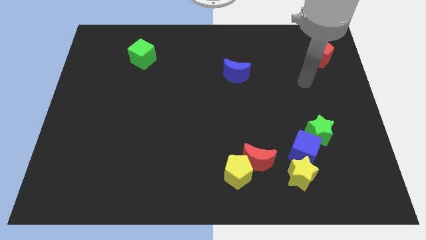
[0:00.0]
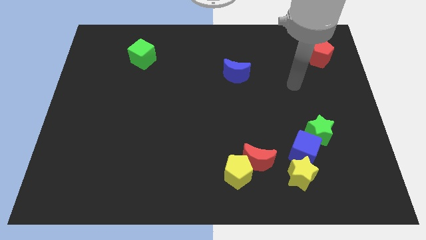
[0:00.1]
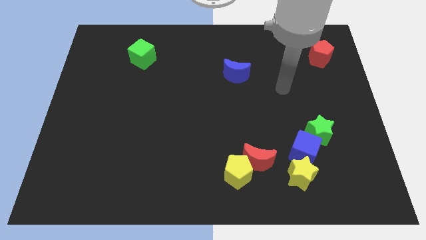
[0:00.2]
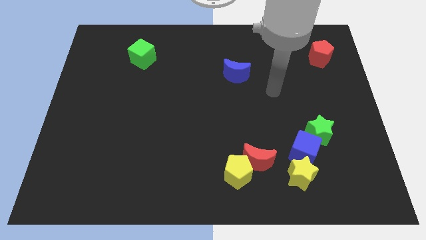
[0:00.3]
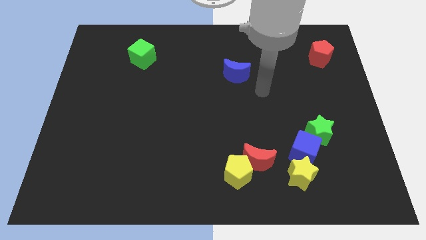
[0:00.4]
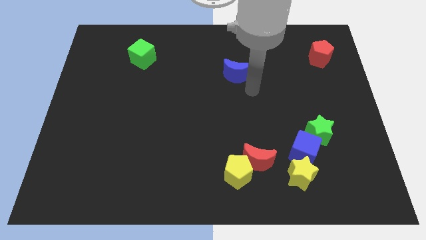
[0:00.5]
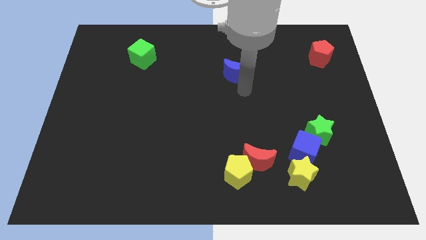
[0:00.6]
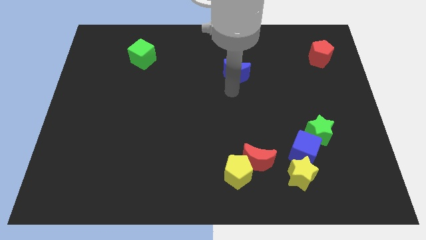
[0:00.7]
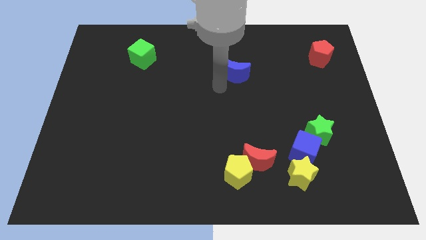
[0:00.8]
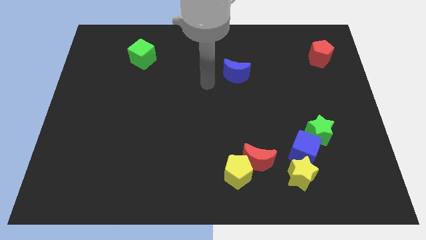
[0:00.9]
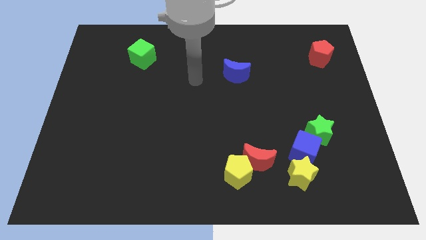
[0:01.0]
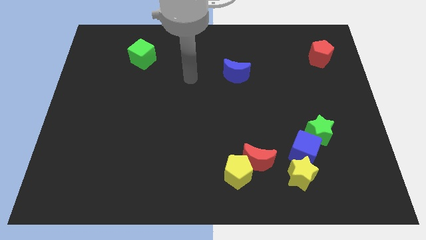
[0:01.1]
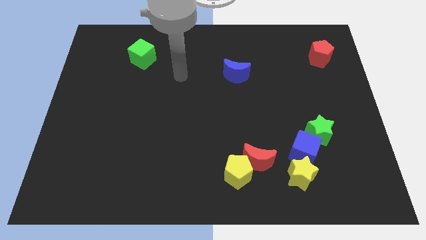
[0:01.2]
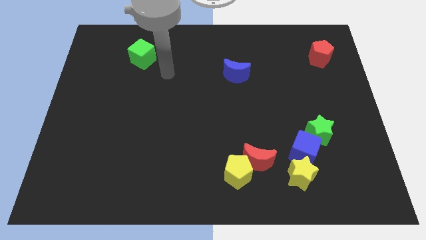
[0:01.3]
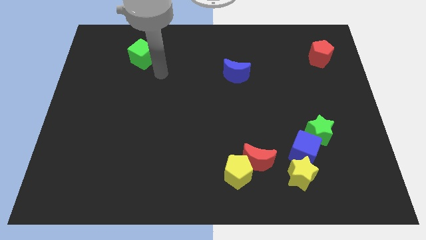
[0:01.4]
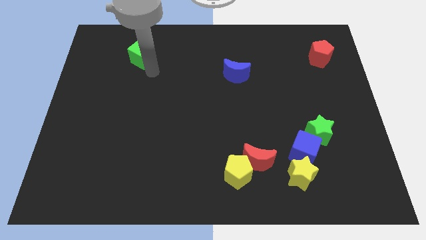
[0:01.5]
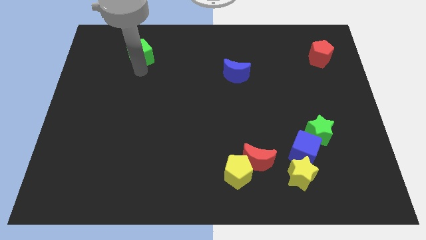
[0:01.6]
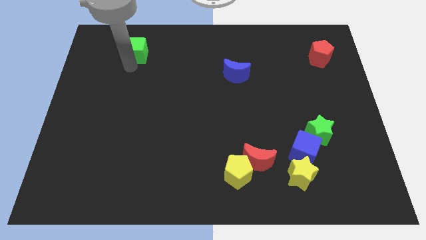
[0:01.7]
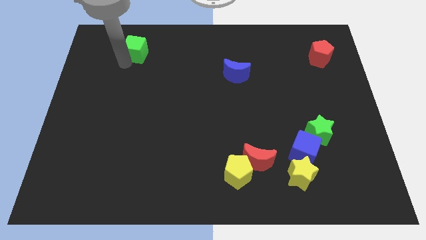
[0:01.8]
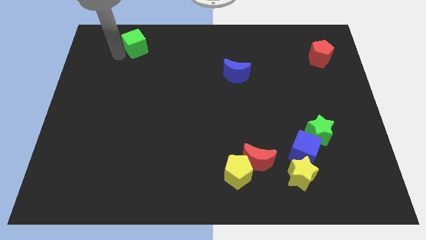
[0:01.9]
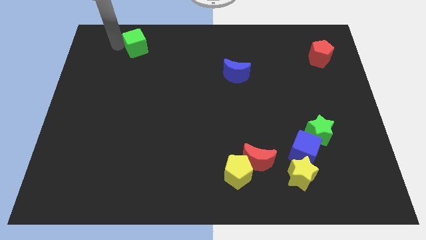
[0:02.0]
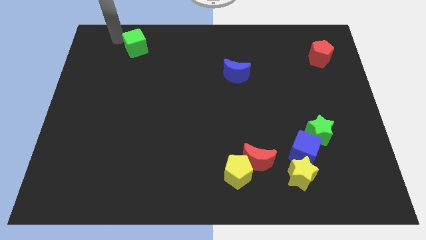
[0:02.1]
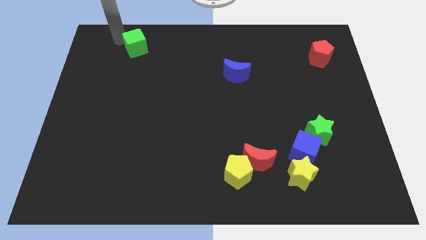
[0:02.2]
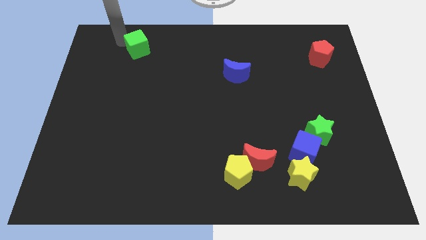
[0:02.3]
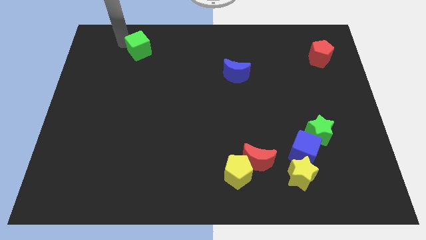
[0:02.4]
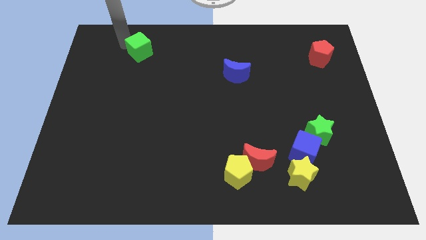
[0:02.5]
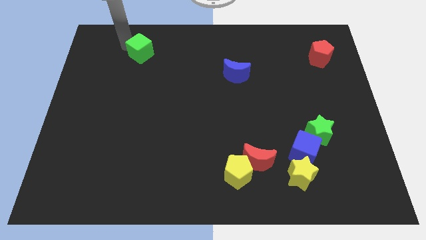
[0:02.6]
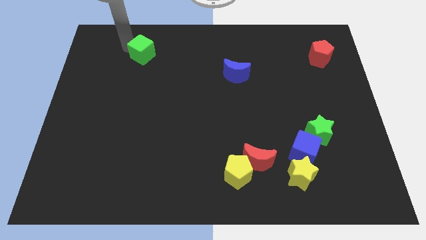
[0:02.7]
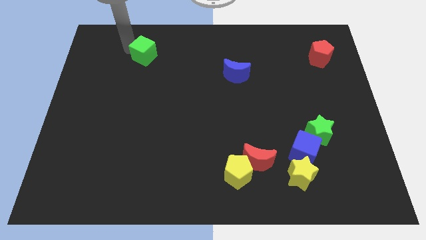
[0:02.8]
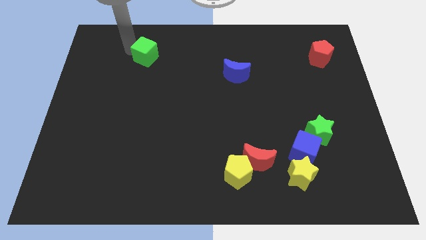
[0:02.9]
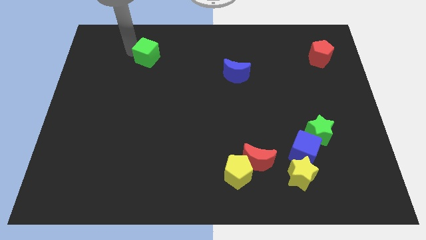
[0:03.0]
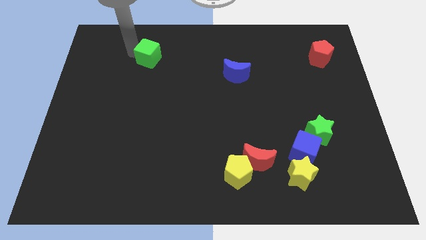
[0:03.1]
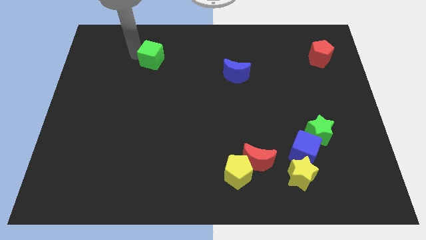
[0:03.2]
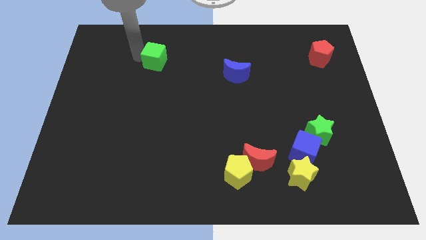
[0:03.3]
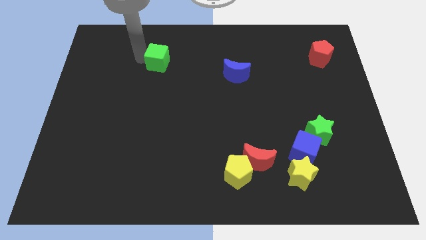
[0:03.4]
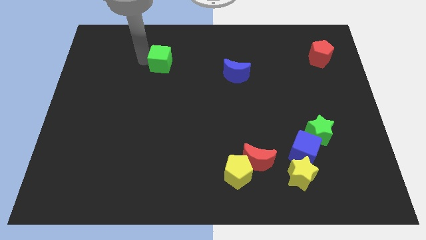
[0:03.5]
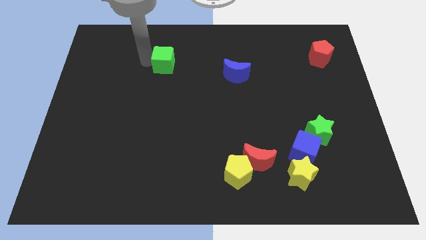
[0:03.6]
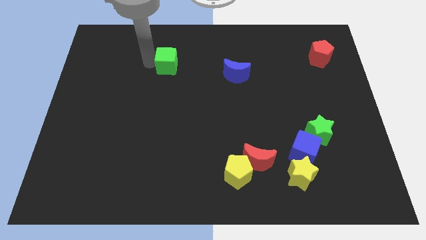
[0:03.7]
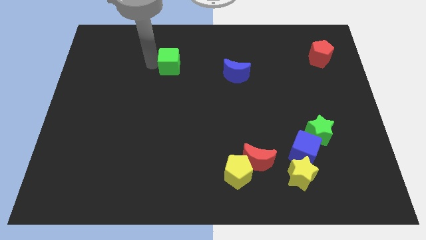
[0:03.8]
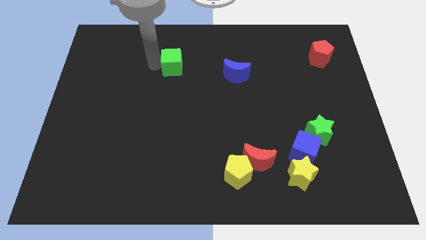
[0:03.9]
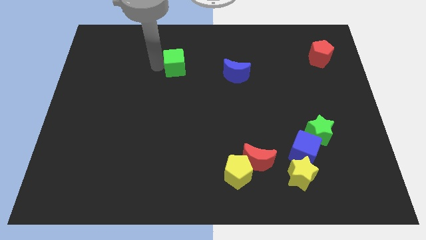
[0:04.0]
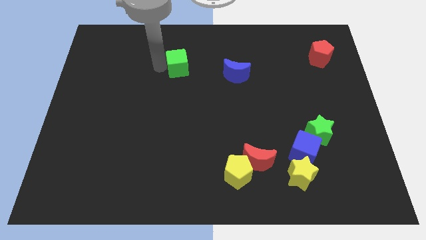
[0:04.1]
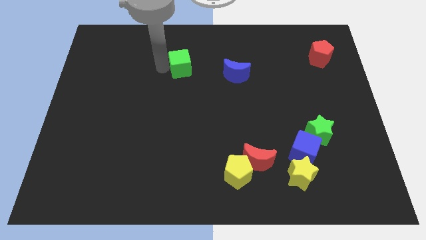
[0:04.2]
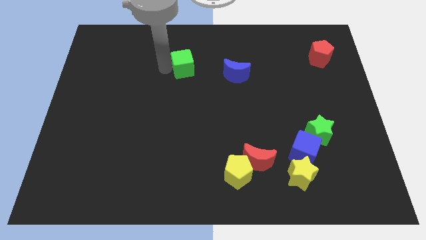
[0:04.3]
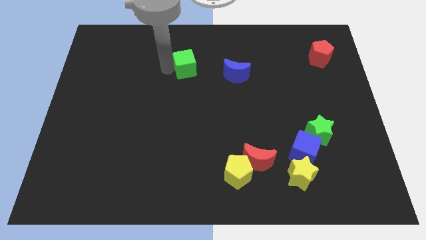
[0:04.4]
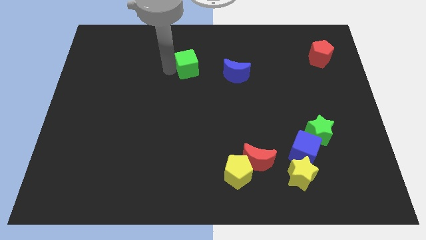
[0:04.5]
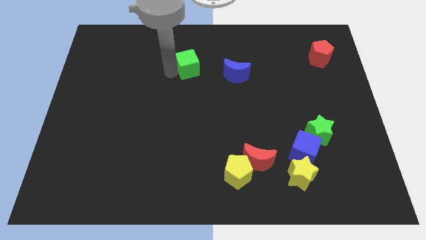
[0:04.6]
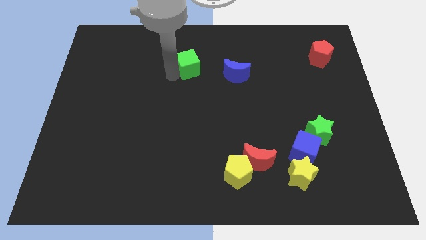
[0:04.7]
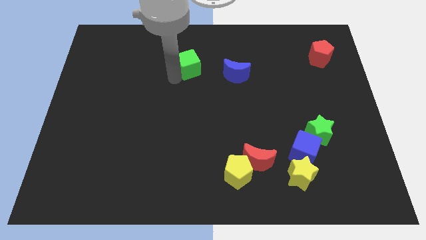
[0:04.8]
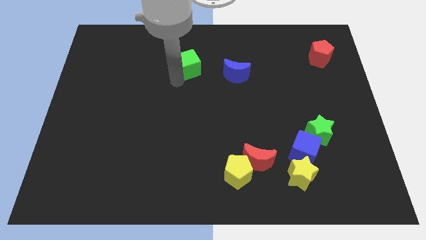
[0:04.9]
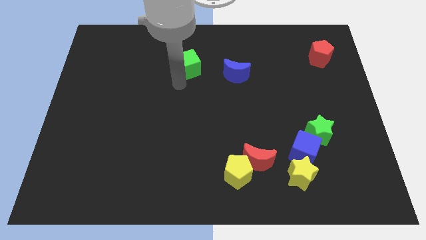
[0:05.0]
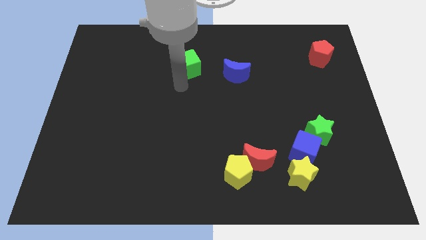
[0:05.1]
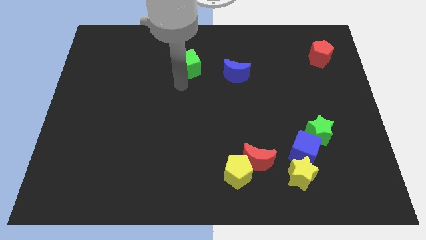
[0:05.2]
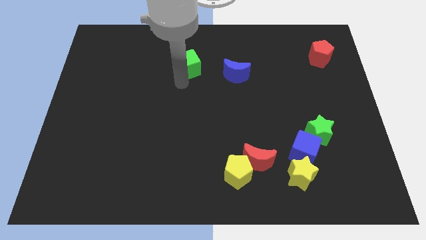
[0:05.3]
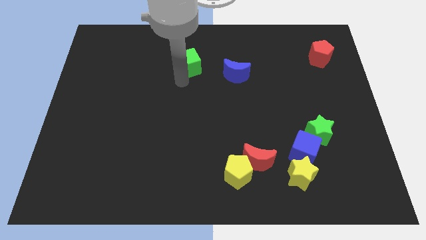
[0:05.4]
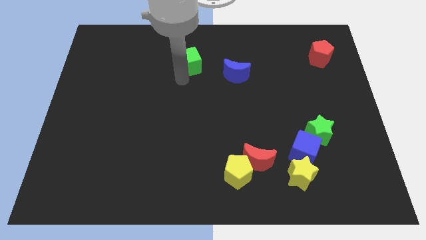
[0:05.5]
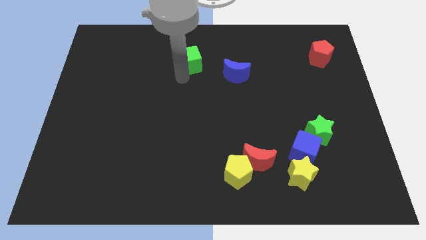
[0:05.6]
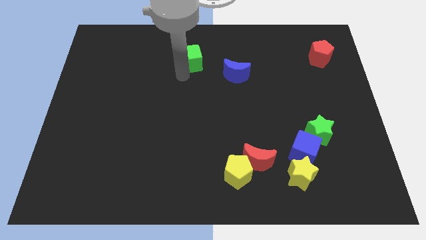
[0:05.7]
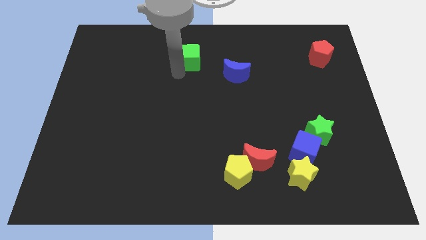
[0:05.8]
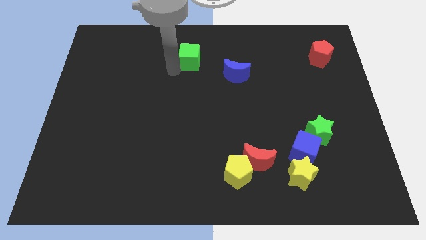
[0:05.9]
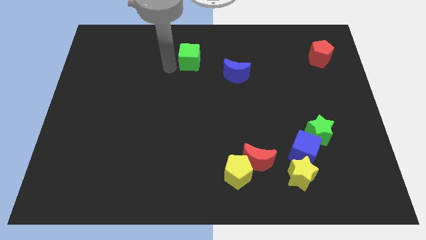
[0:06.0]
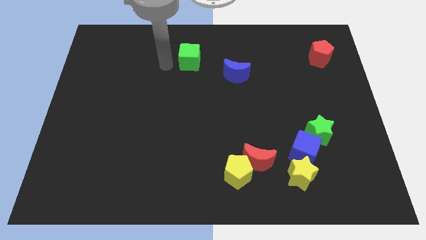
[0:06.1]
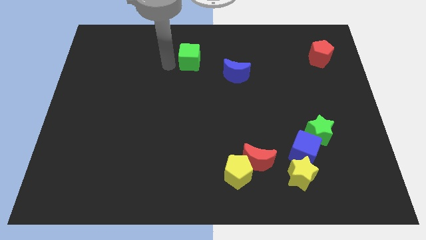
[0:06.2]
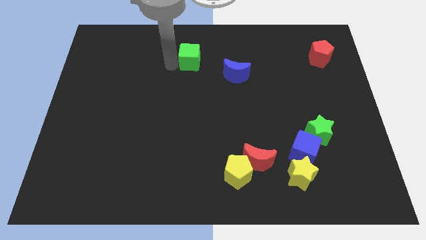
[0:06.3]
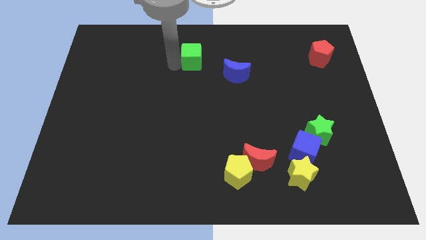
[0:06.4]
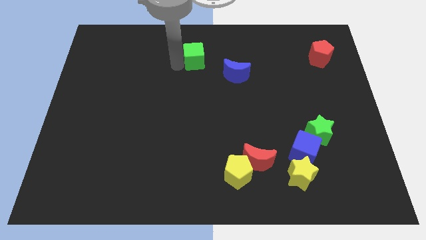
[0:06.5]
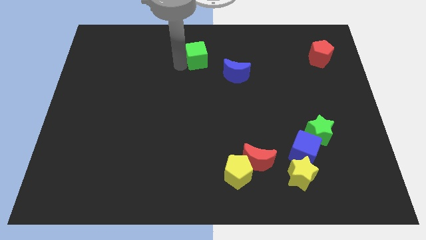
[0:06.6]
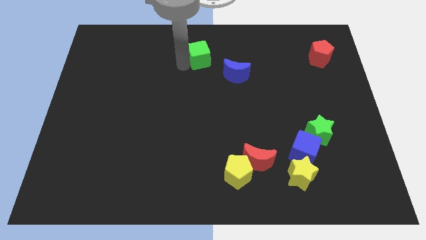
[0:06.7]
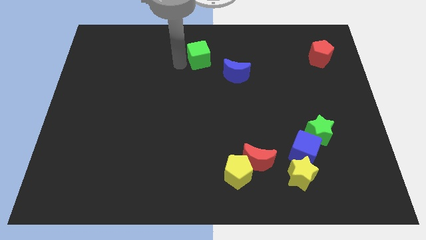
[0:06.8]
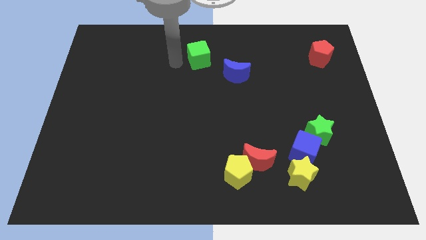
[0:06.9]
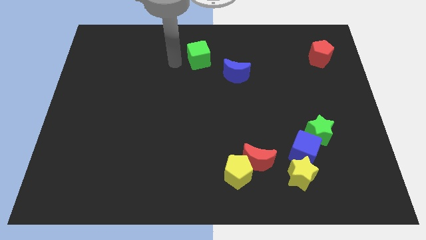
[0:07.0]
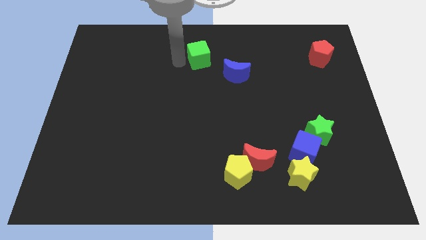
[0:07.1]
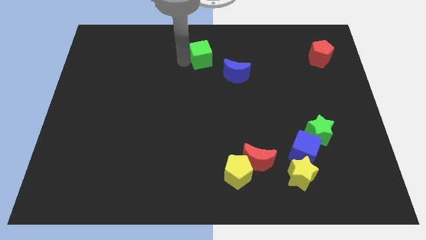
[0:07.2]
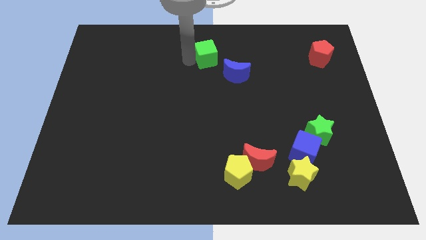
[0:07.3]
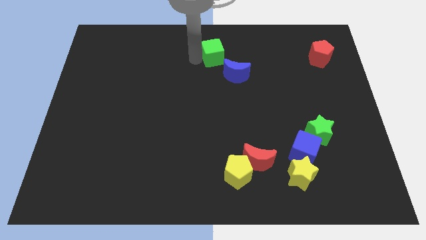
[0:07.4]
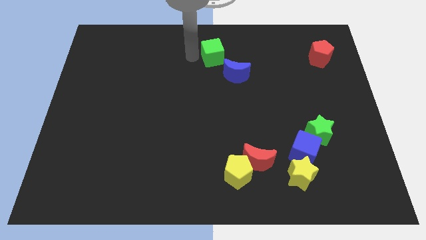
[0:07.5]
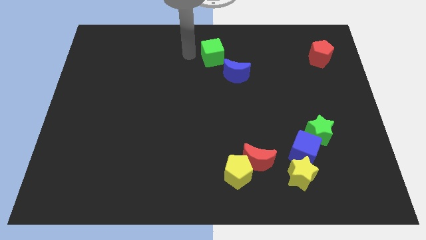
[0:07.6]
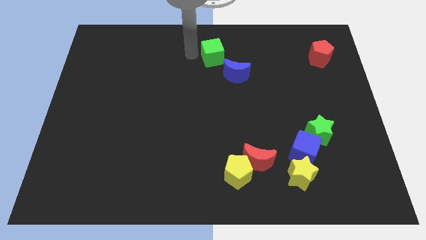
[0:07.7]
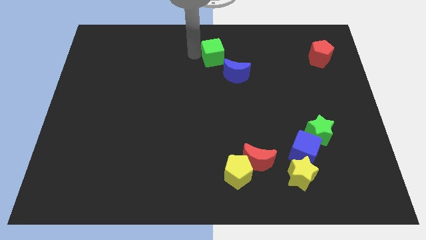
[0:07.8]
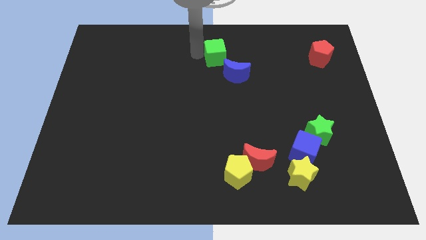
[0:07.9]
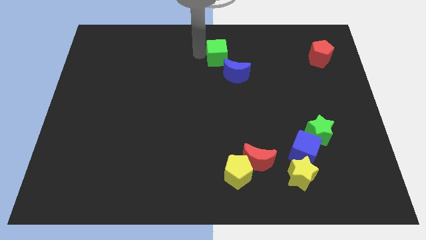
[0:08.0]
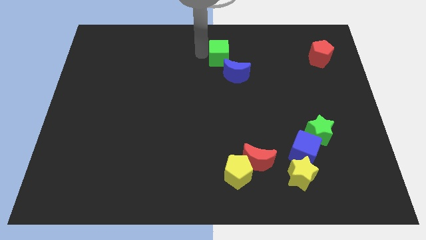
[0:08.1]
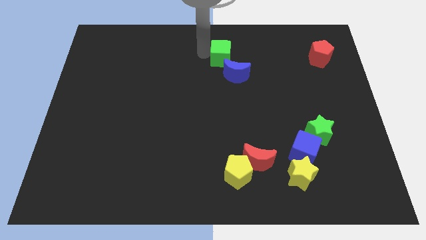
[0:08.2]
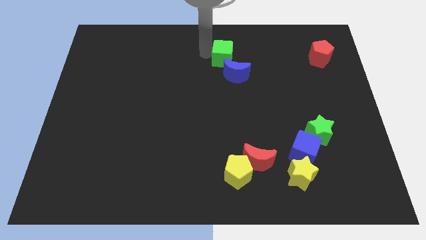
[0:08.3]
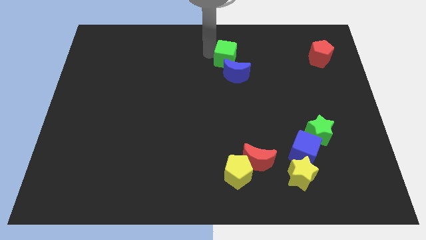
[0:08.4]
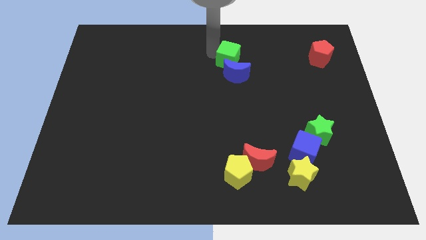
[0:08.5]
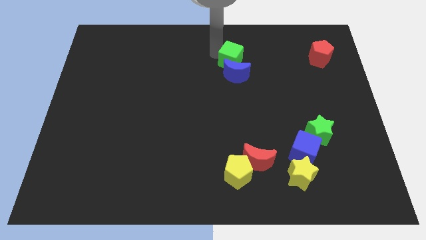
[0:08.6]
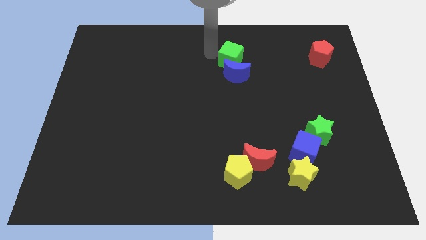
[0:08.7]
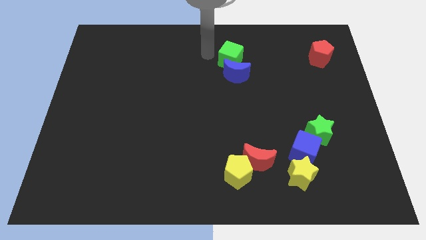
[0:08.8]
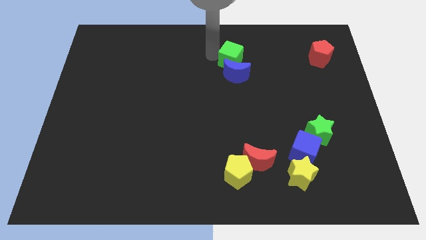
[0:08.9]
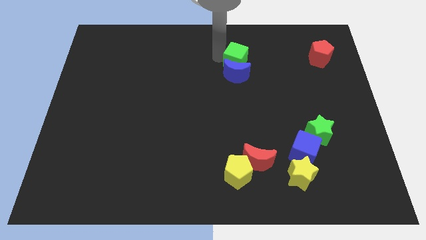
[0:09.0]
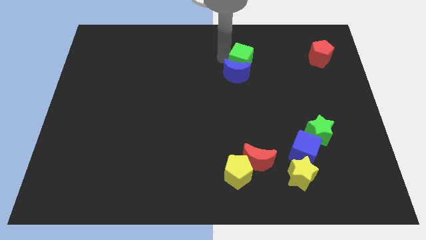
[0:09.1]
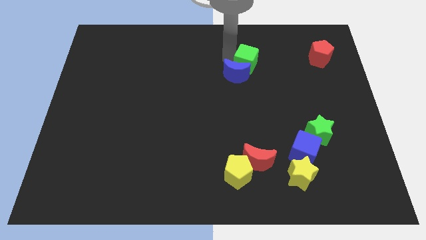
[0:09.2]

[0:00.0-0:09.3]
put the green cube right of the blue moon
